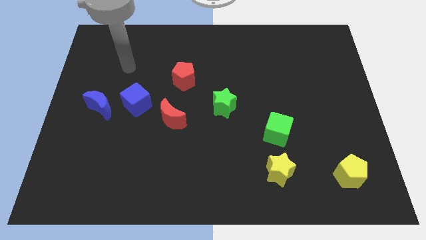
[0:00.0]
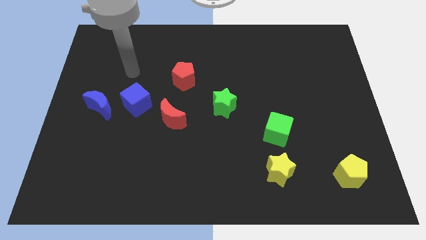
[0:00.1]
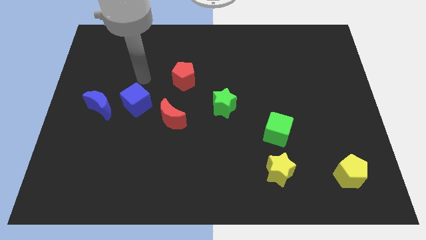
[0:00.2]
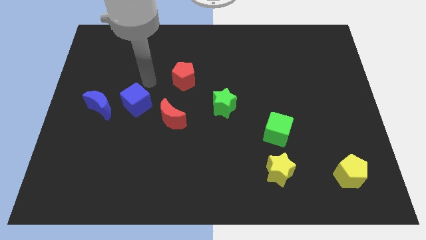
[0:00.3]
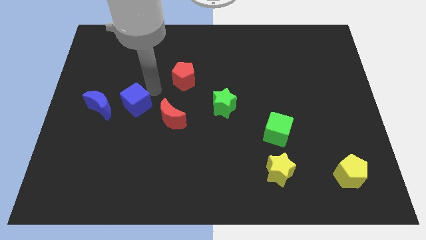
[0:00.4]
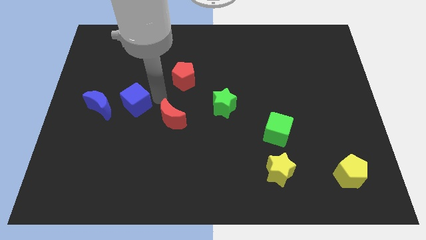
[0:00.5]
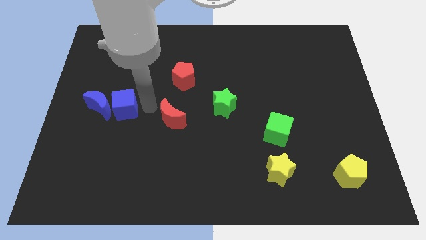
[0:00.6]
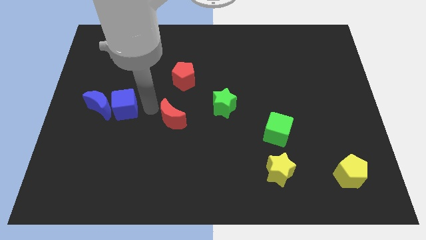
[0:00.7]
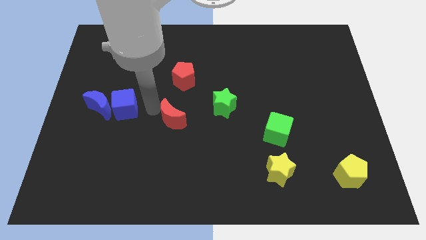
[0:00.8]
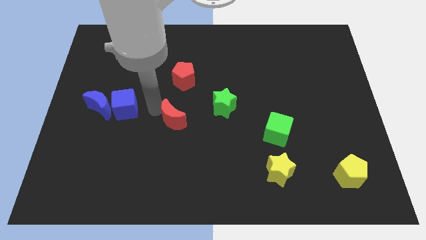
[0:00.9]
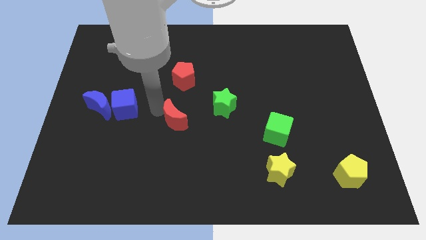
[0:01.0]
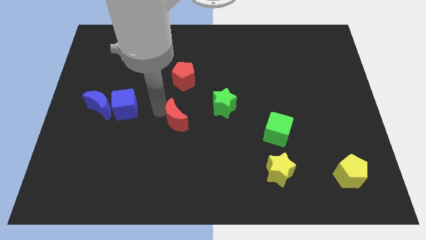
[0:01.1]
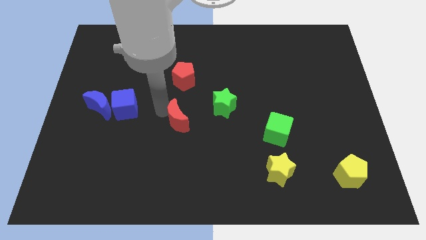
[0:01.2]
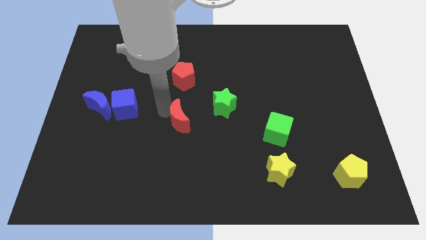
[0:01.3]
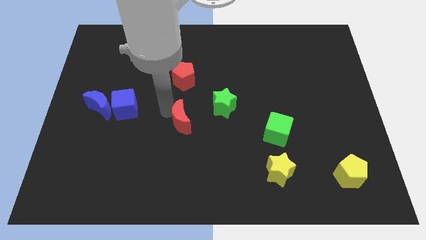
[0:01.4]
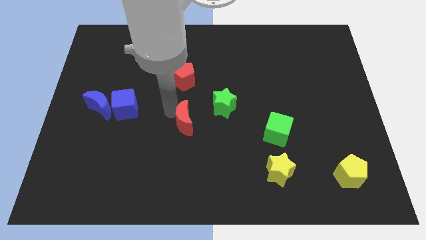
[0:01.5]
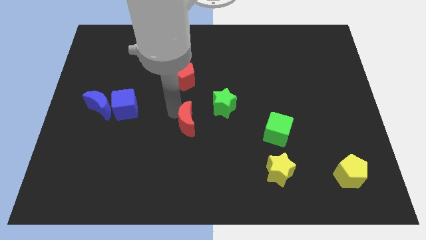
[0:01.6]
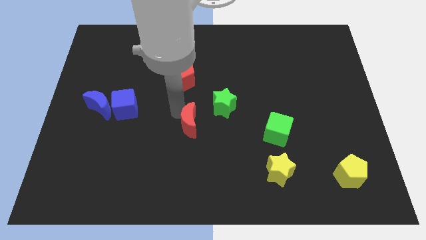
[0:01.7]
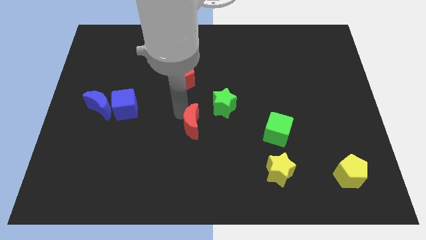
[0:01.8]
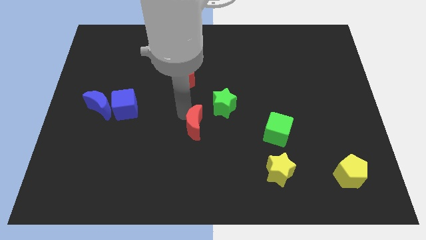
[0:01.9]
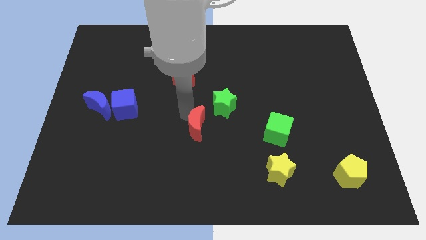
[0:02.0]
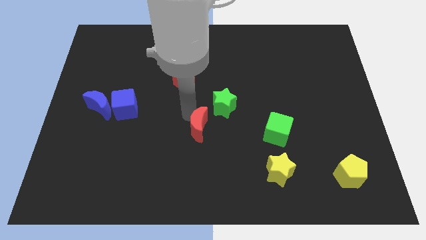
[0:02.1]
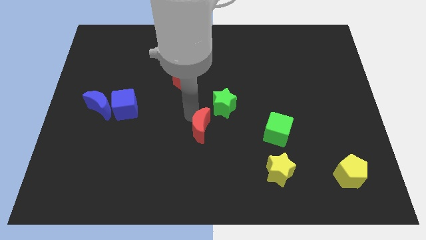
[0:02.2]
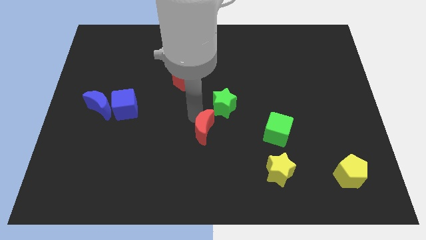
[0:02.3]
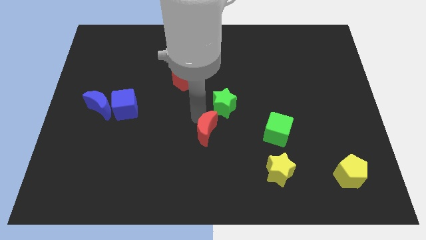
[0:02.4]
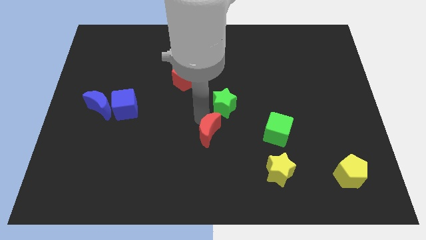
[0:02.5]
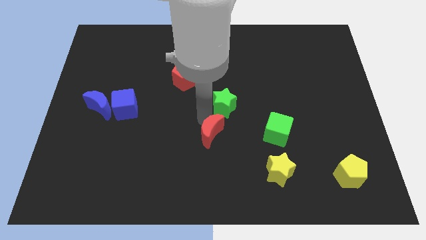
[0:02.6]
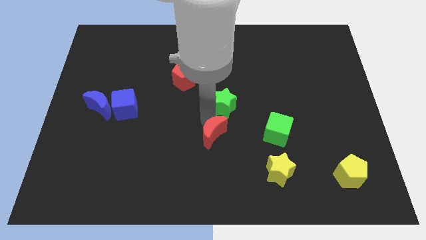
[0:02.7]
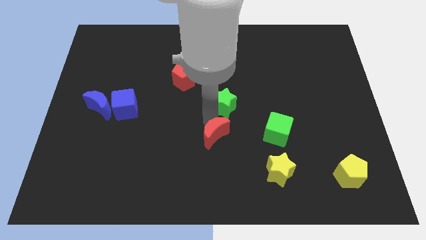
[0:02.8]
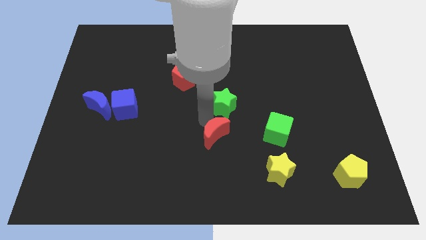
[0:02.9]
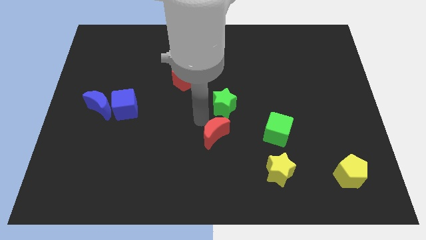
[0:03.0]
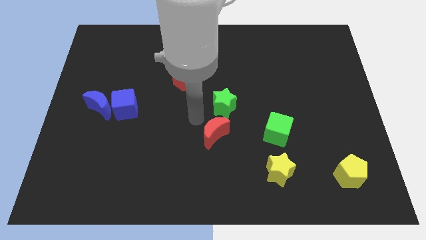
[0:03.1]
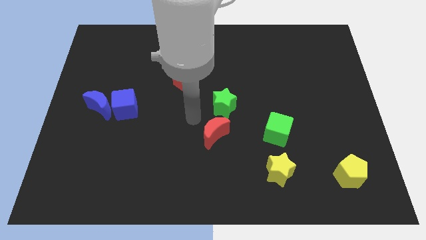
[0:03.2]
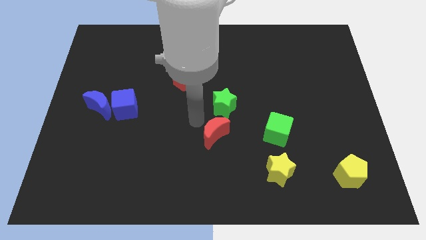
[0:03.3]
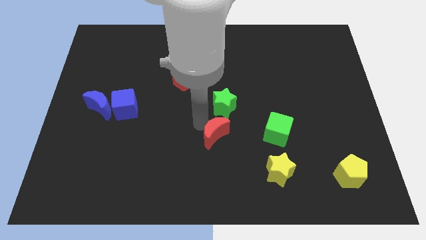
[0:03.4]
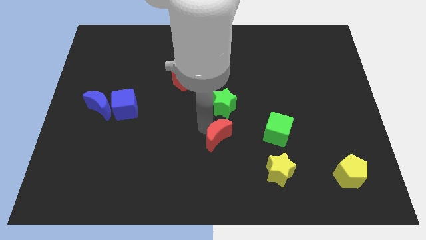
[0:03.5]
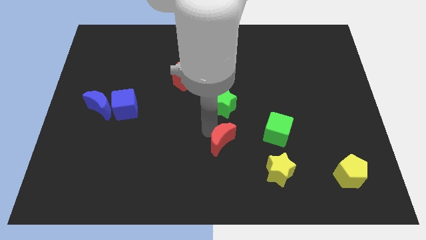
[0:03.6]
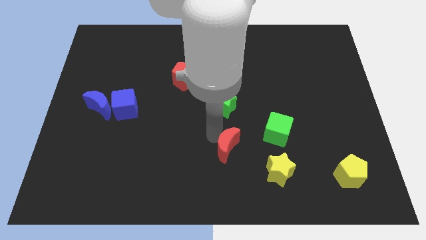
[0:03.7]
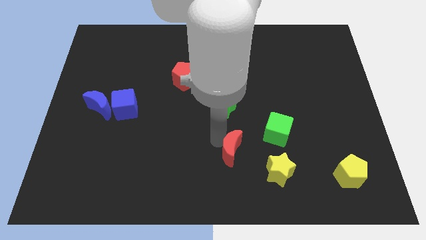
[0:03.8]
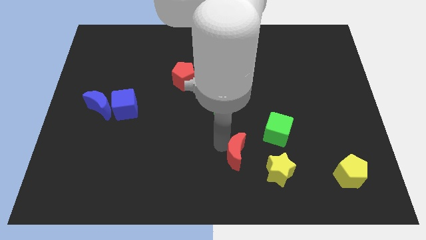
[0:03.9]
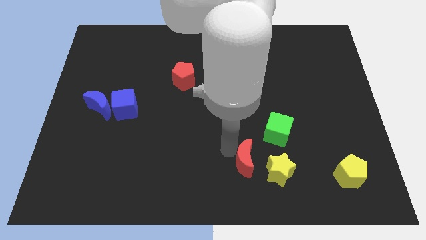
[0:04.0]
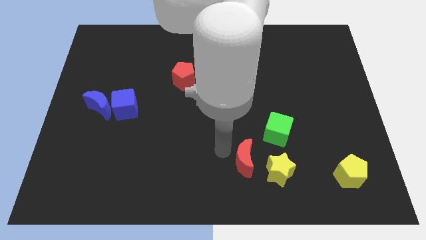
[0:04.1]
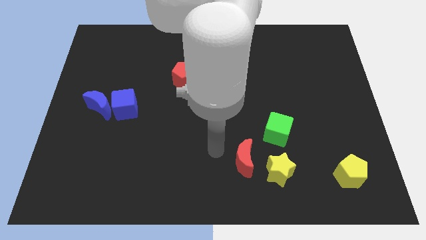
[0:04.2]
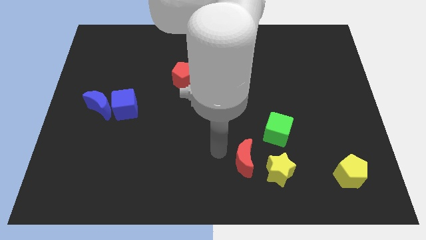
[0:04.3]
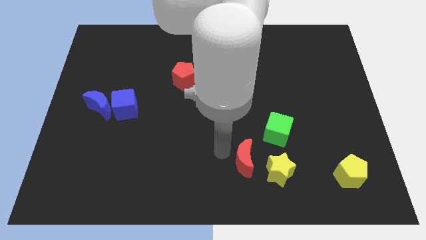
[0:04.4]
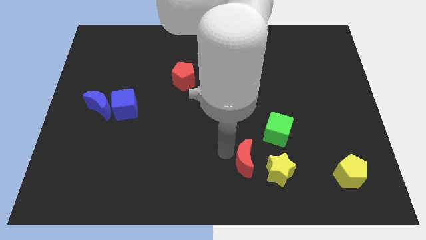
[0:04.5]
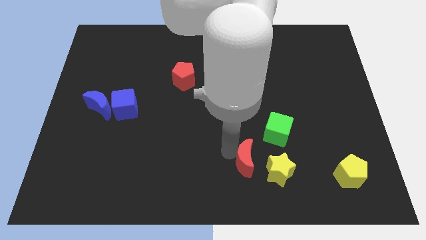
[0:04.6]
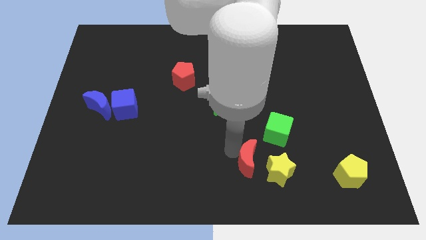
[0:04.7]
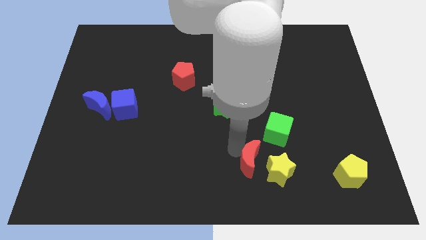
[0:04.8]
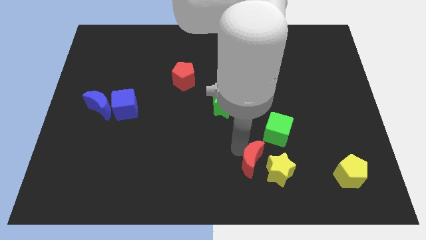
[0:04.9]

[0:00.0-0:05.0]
push the red moon to the yellow star

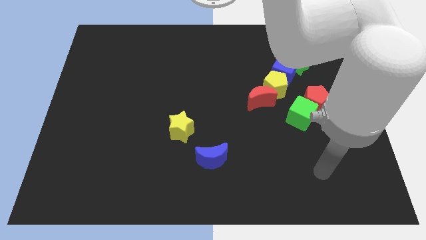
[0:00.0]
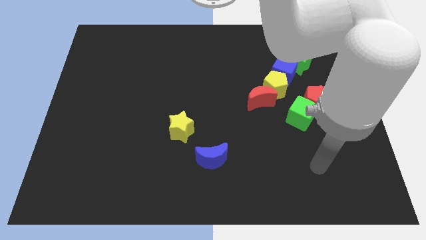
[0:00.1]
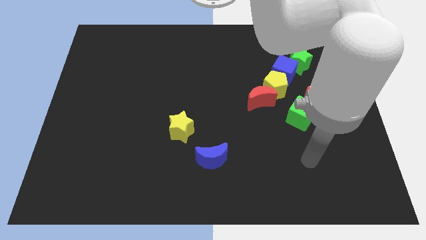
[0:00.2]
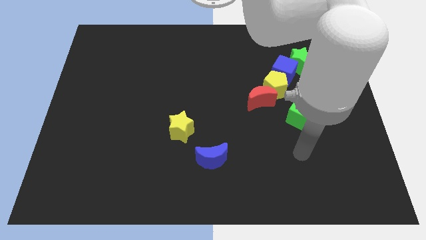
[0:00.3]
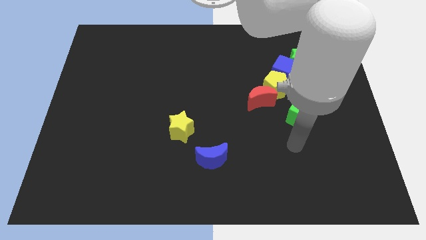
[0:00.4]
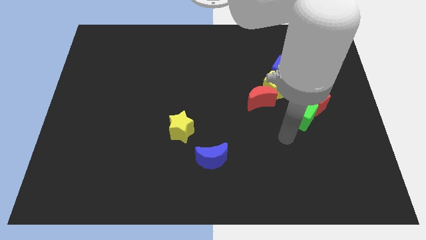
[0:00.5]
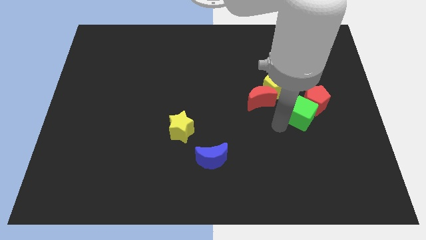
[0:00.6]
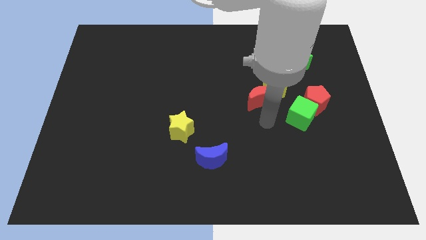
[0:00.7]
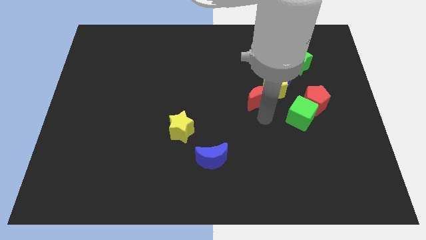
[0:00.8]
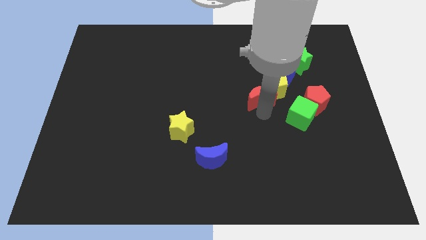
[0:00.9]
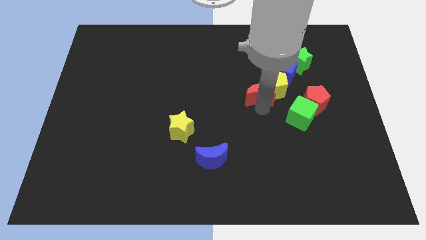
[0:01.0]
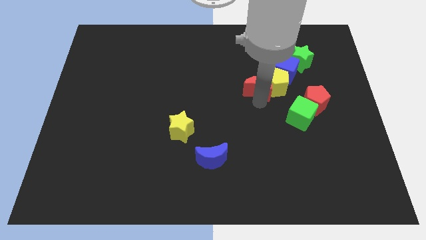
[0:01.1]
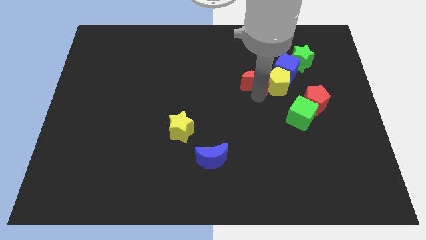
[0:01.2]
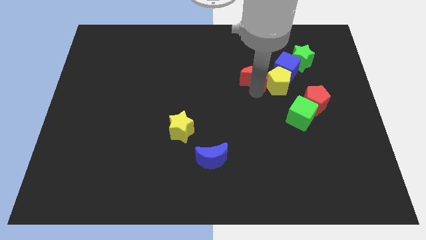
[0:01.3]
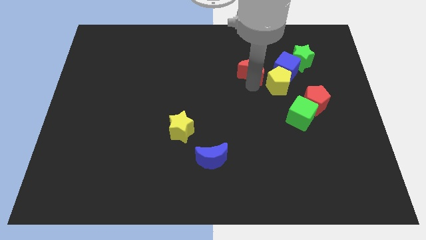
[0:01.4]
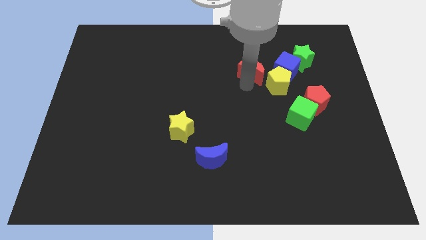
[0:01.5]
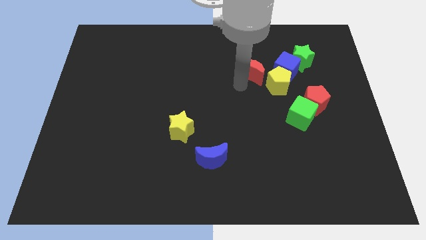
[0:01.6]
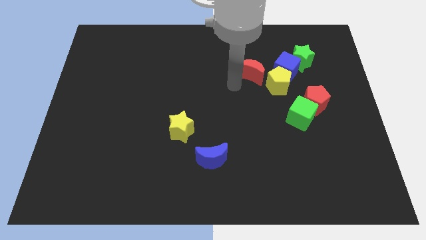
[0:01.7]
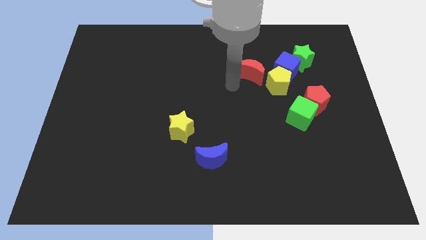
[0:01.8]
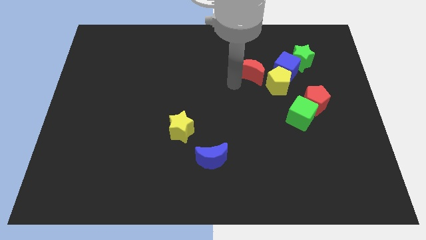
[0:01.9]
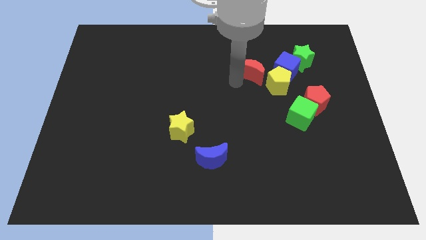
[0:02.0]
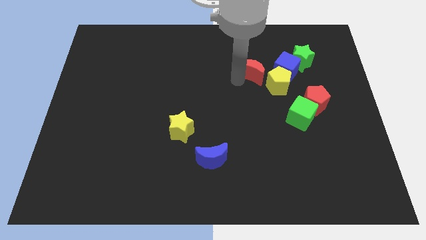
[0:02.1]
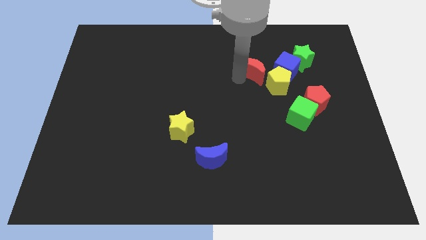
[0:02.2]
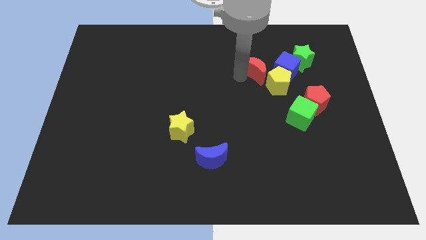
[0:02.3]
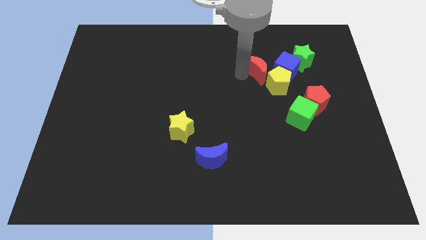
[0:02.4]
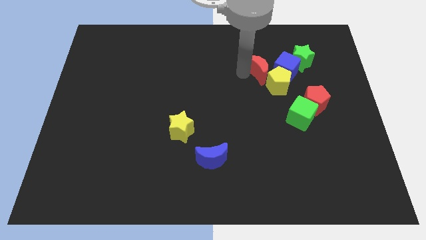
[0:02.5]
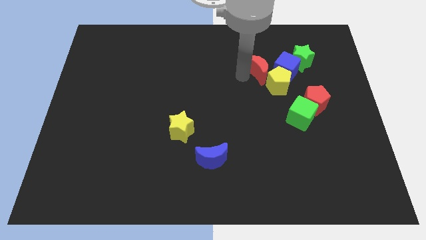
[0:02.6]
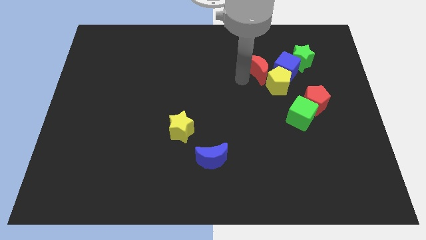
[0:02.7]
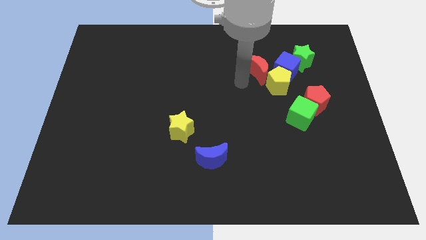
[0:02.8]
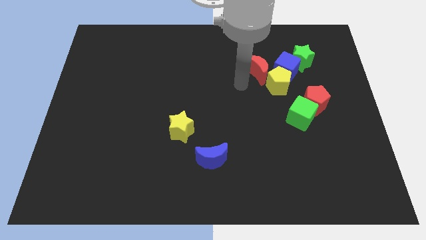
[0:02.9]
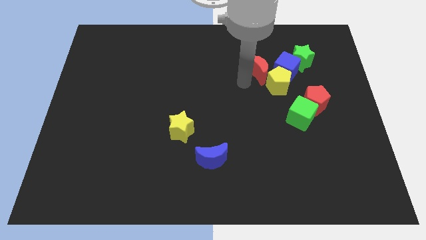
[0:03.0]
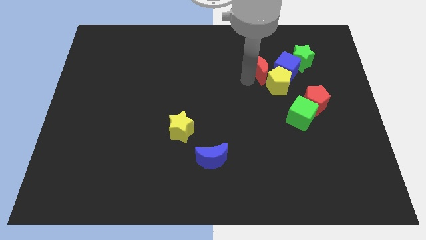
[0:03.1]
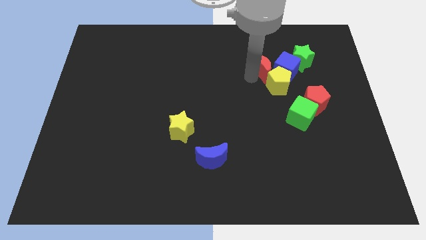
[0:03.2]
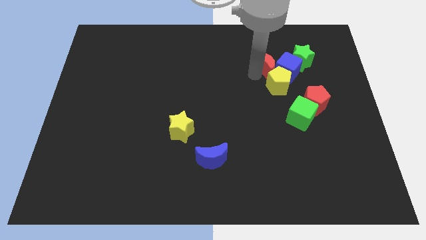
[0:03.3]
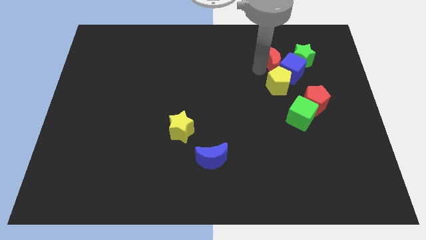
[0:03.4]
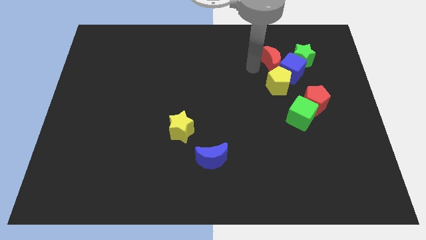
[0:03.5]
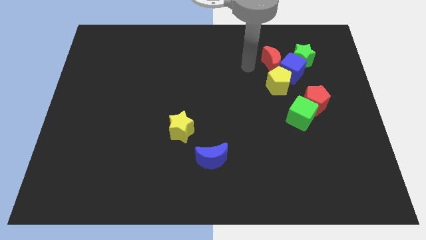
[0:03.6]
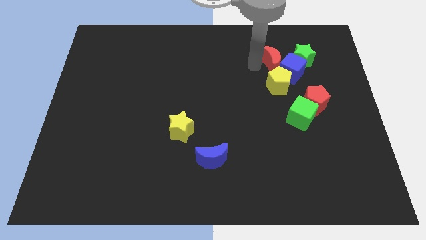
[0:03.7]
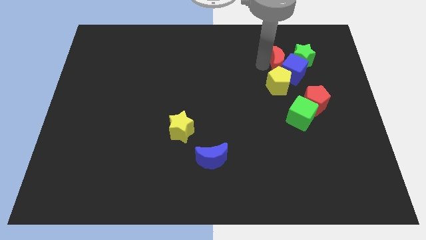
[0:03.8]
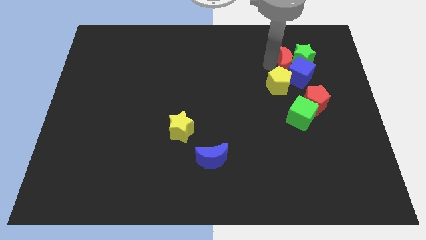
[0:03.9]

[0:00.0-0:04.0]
put the red moon towards the green star
